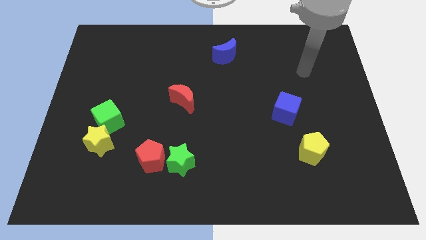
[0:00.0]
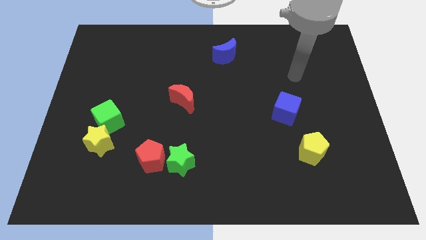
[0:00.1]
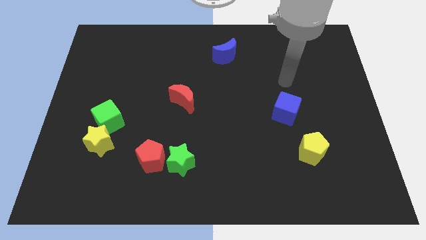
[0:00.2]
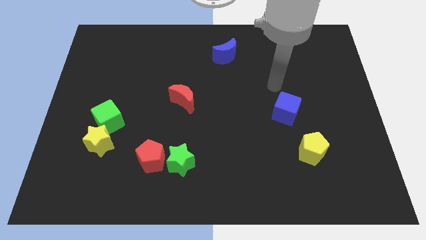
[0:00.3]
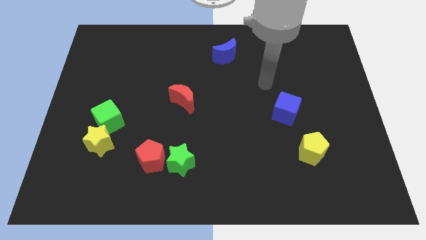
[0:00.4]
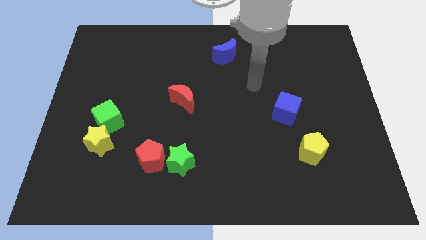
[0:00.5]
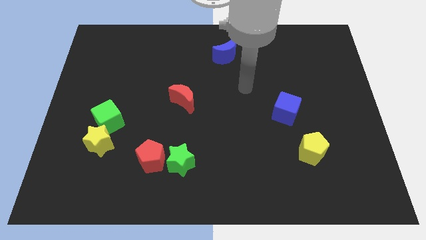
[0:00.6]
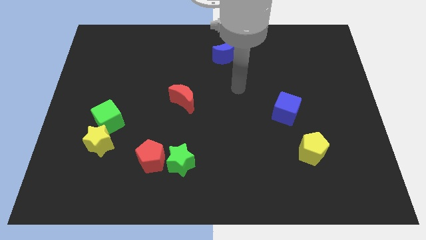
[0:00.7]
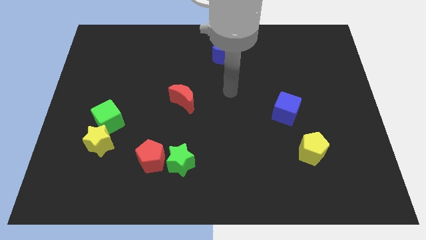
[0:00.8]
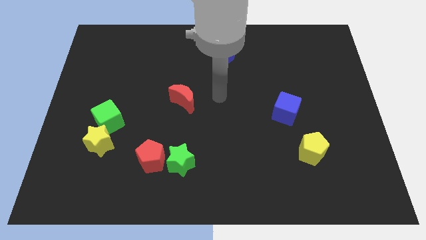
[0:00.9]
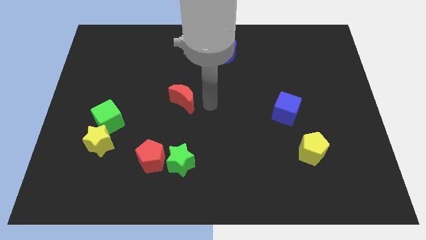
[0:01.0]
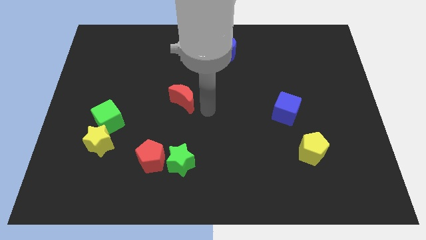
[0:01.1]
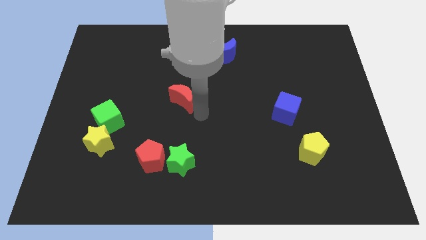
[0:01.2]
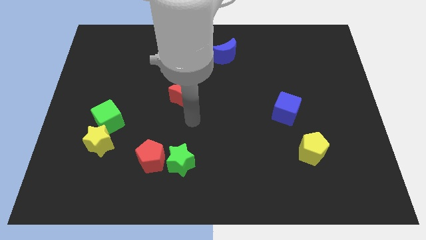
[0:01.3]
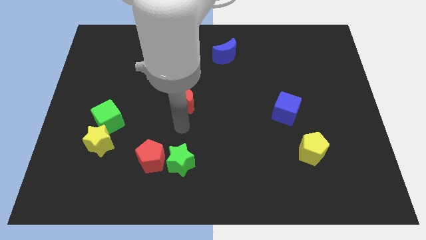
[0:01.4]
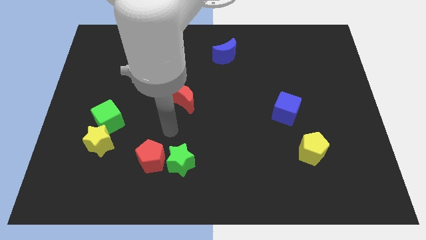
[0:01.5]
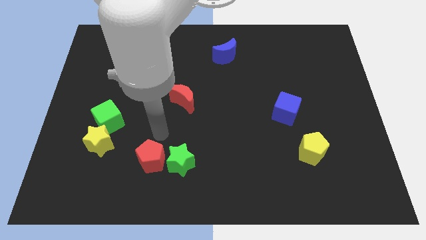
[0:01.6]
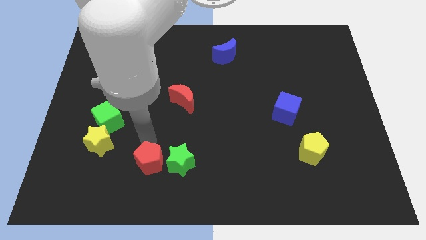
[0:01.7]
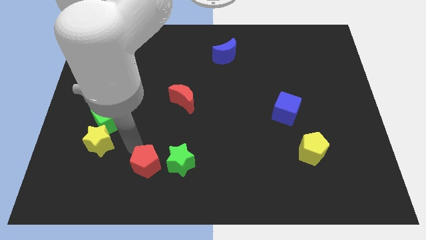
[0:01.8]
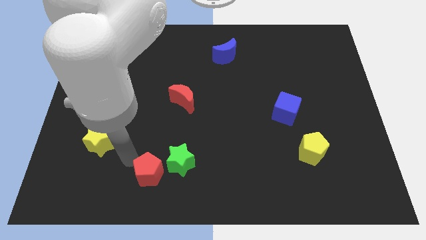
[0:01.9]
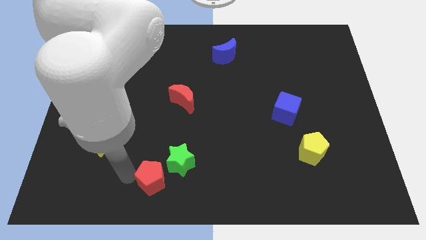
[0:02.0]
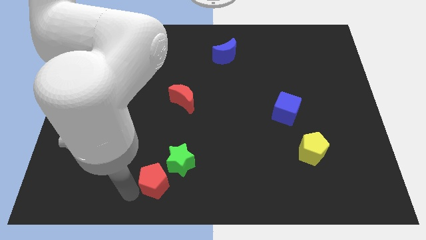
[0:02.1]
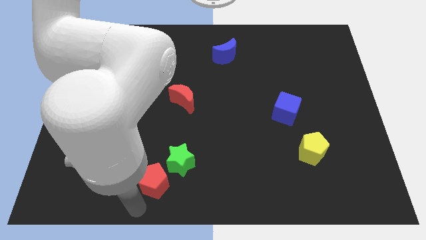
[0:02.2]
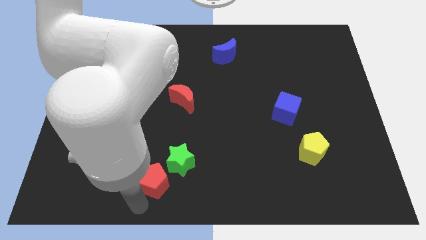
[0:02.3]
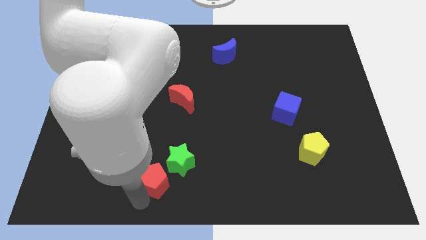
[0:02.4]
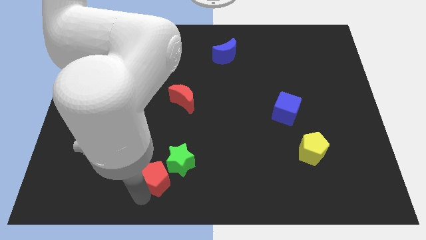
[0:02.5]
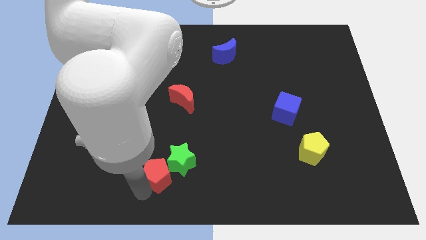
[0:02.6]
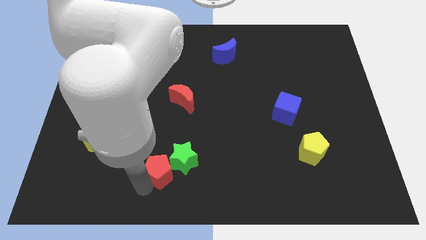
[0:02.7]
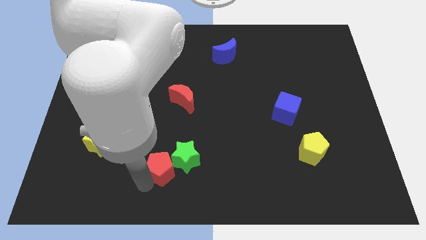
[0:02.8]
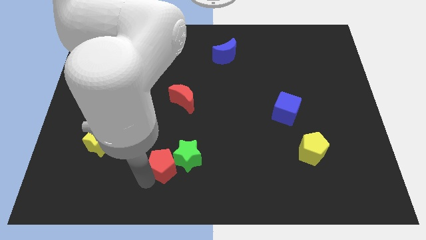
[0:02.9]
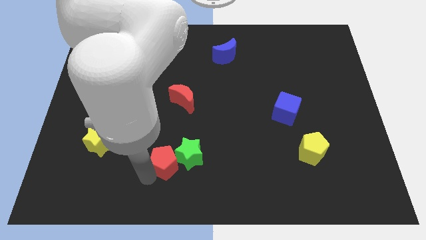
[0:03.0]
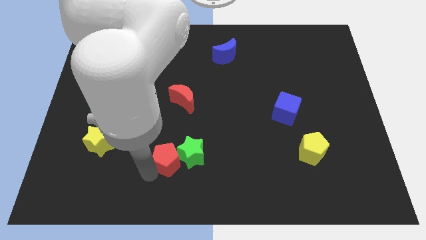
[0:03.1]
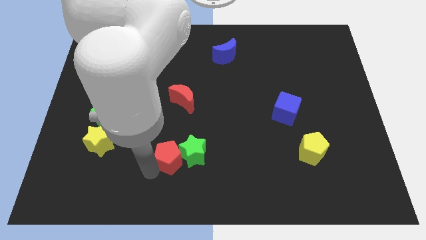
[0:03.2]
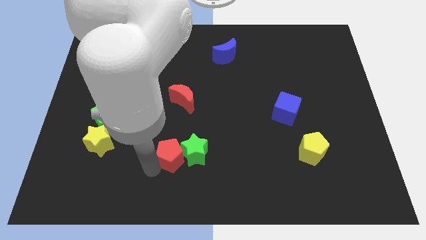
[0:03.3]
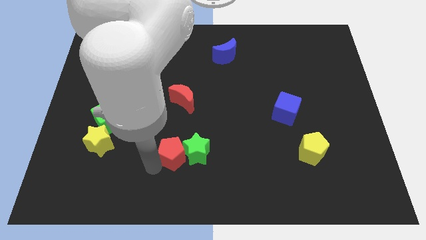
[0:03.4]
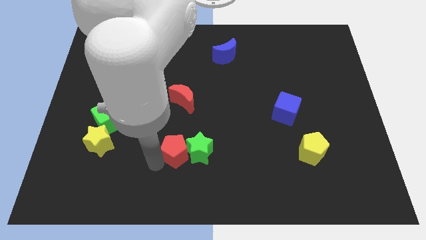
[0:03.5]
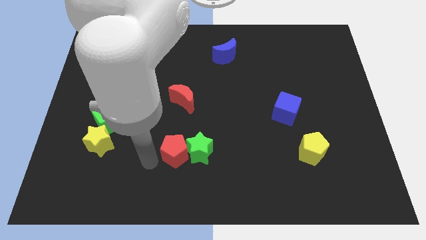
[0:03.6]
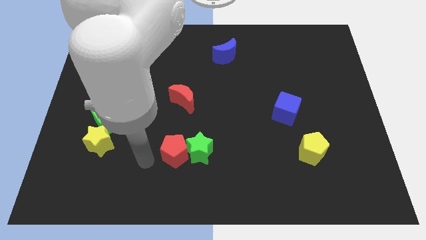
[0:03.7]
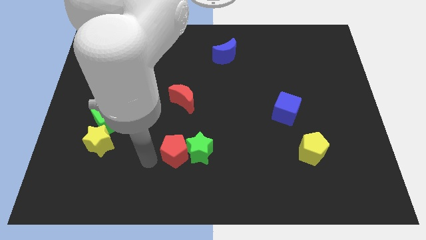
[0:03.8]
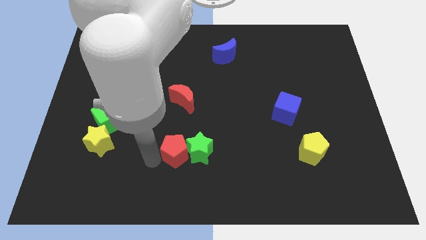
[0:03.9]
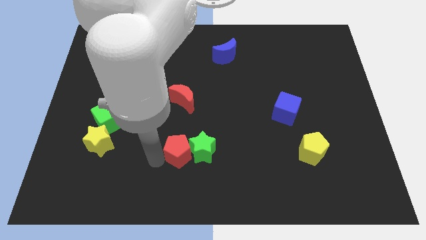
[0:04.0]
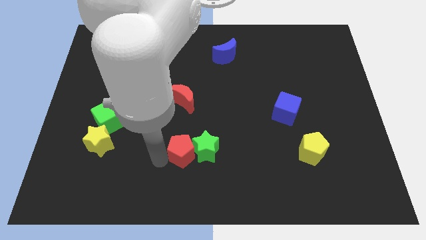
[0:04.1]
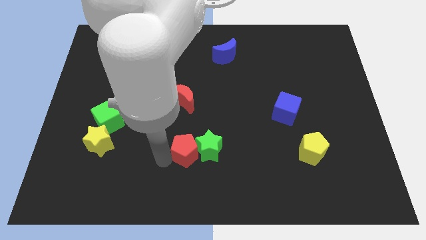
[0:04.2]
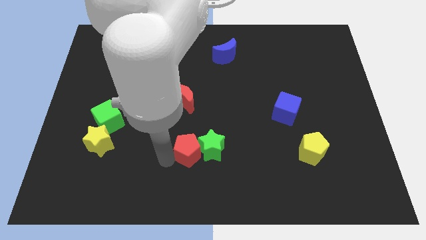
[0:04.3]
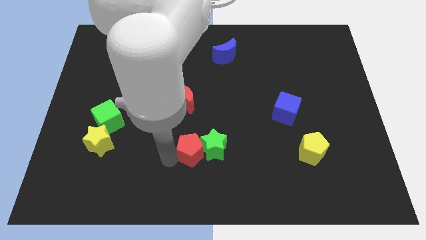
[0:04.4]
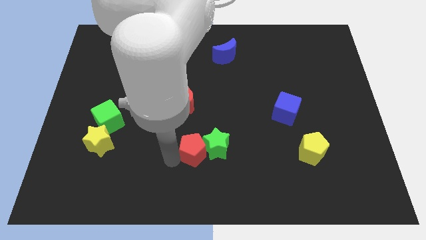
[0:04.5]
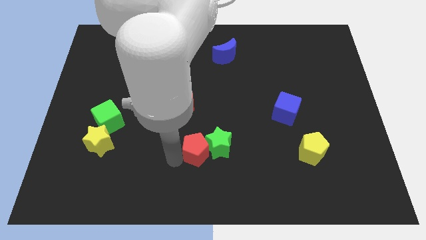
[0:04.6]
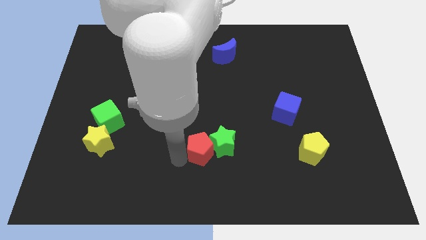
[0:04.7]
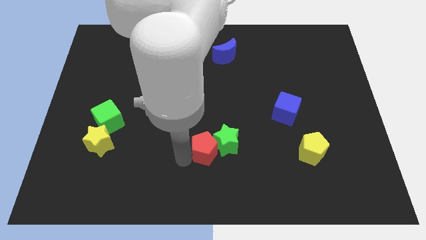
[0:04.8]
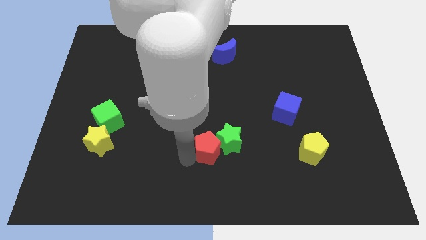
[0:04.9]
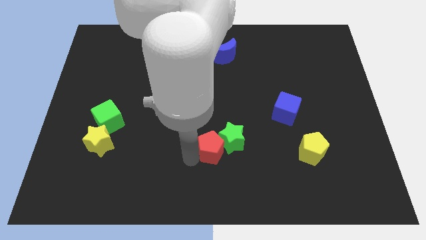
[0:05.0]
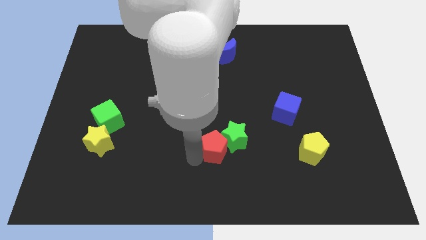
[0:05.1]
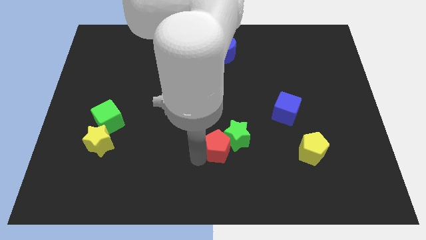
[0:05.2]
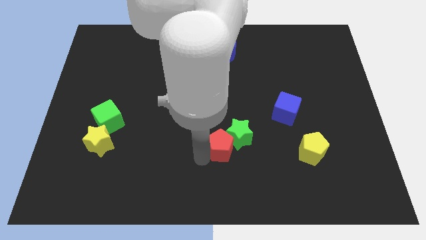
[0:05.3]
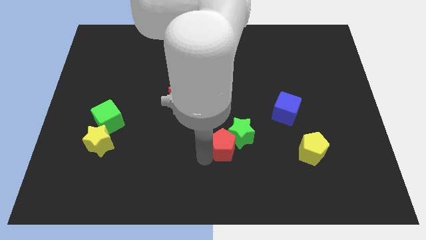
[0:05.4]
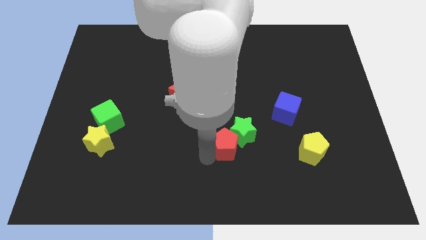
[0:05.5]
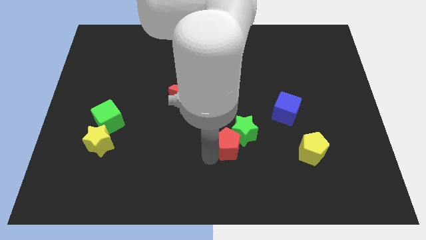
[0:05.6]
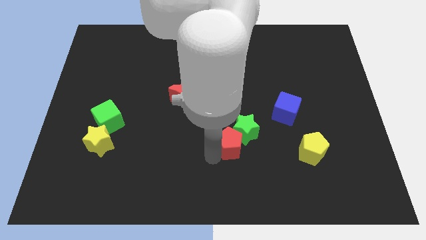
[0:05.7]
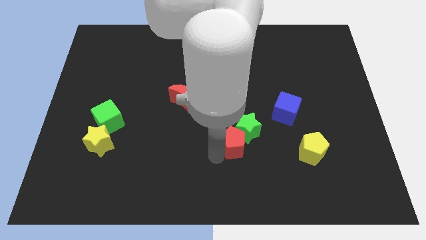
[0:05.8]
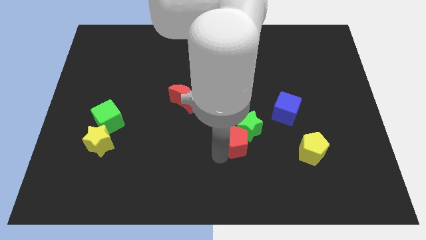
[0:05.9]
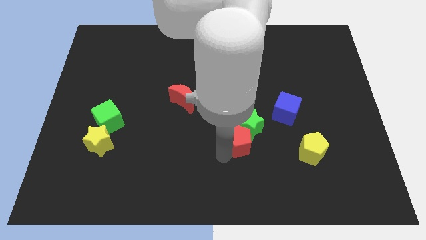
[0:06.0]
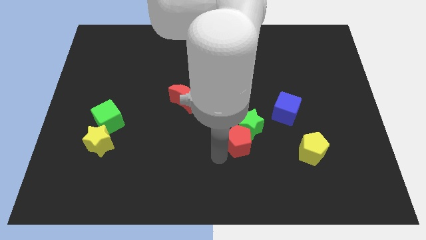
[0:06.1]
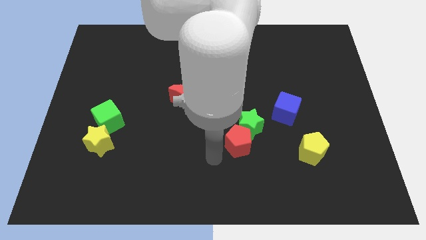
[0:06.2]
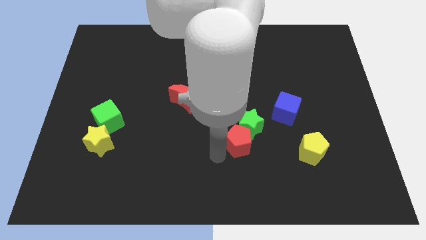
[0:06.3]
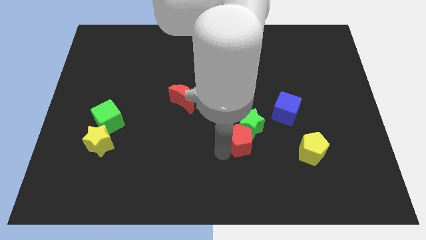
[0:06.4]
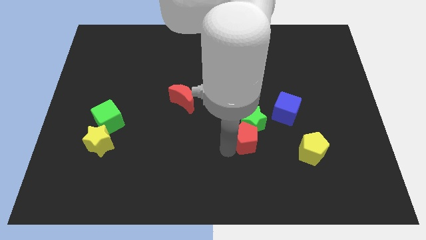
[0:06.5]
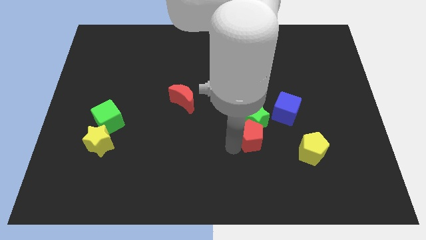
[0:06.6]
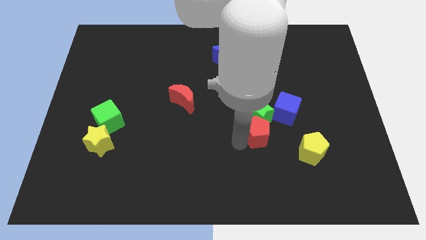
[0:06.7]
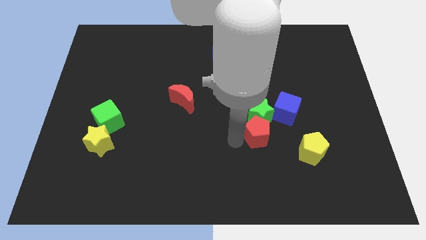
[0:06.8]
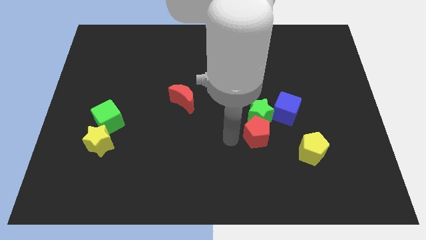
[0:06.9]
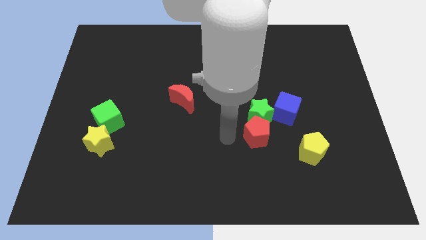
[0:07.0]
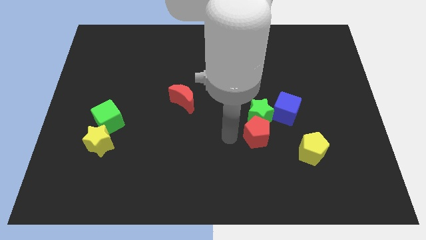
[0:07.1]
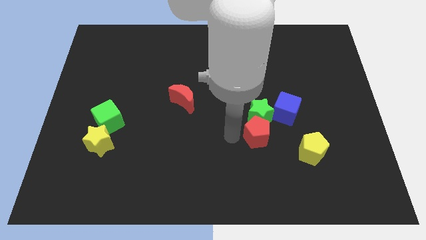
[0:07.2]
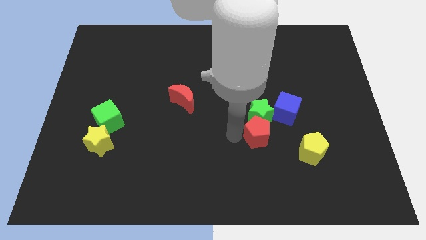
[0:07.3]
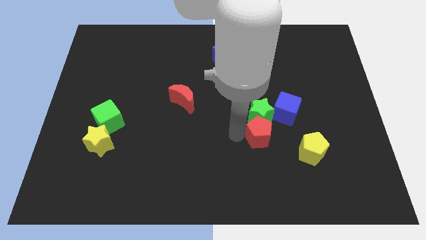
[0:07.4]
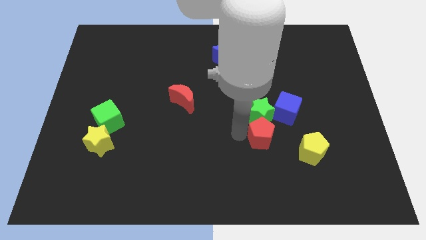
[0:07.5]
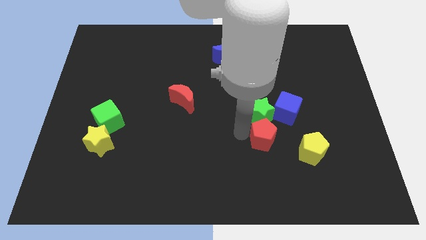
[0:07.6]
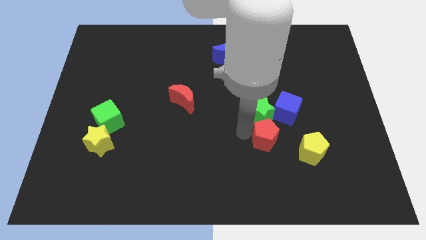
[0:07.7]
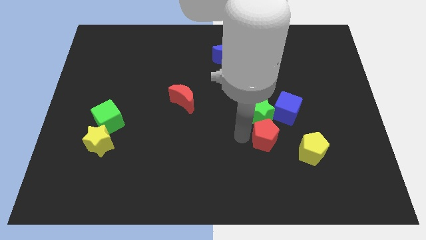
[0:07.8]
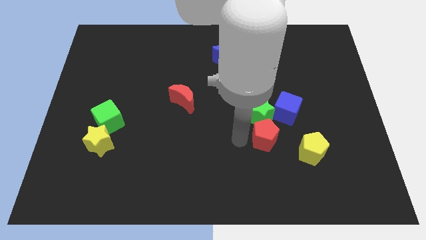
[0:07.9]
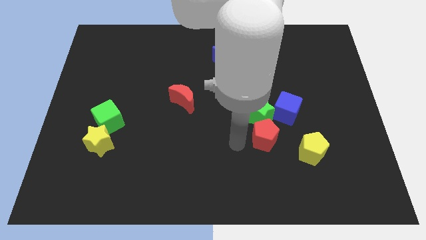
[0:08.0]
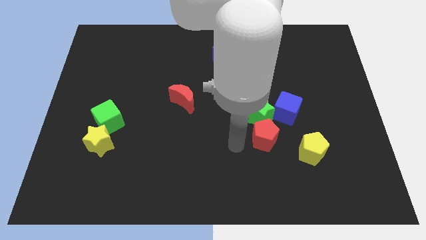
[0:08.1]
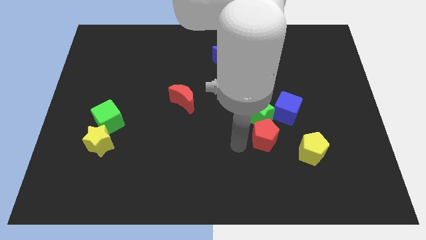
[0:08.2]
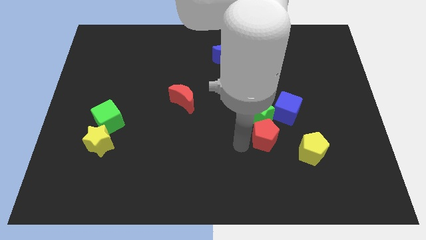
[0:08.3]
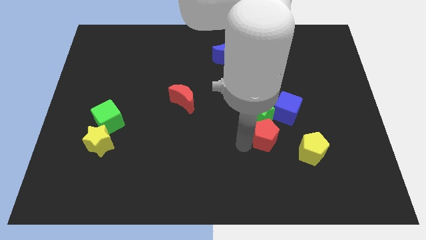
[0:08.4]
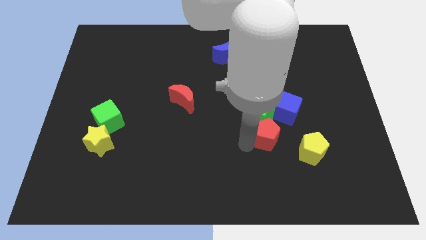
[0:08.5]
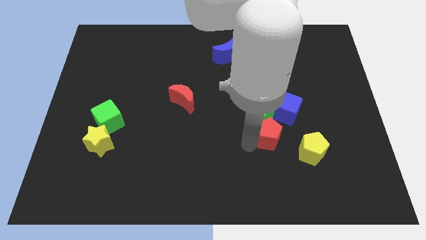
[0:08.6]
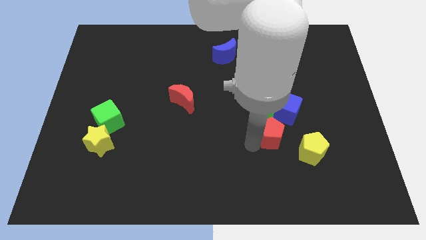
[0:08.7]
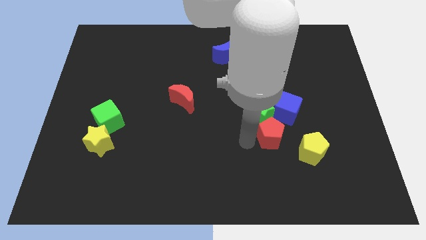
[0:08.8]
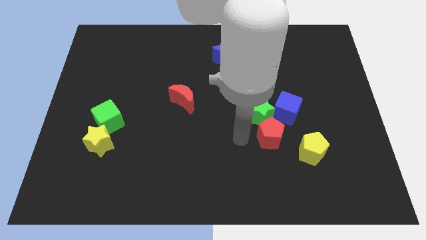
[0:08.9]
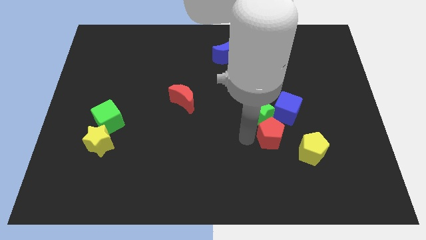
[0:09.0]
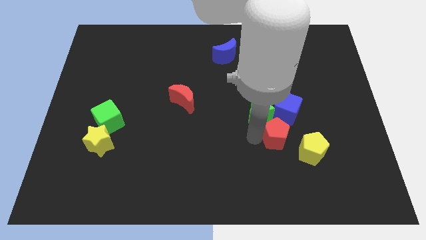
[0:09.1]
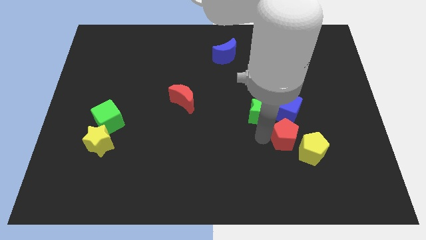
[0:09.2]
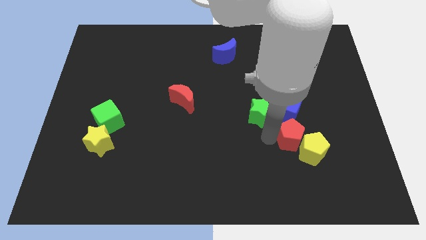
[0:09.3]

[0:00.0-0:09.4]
push the red pentagon to the top side of the yellow pentagon
